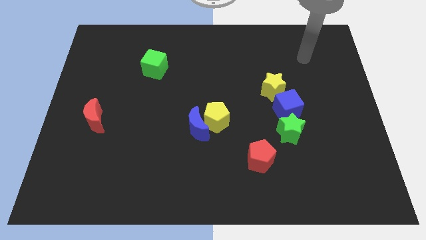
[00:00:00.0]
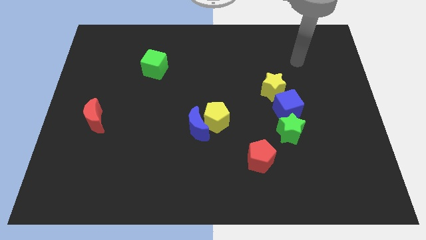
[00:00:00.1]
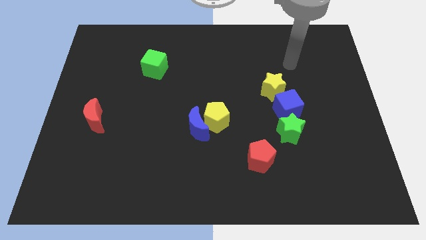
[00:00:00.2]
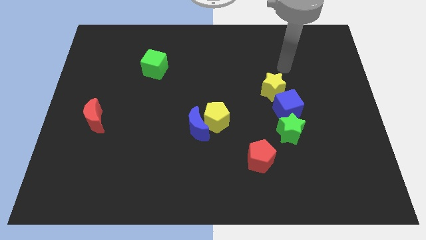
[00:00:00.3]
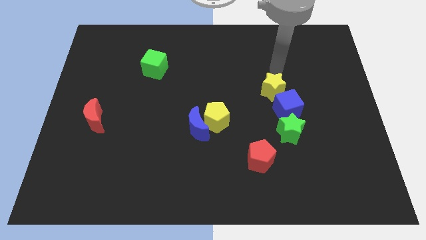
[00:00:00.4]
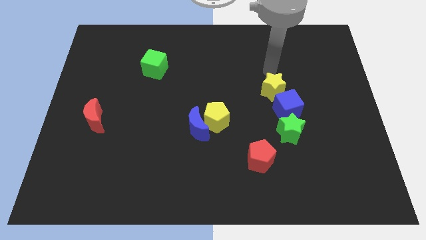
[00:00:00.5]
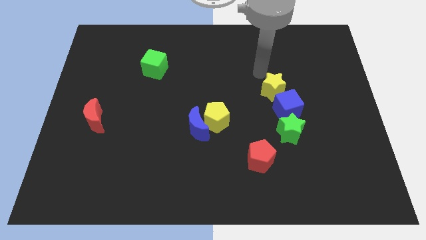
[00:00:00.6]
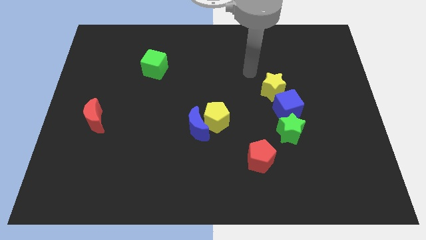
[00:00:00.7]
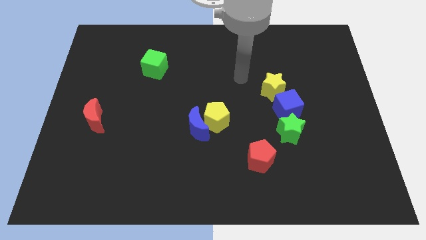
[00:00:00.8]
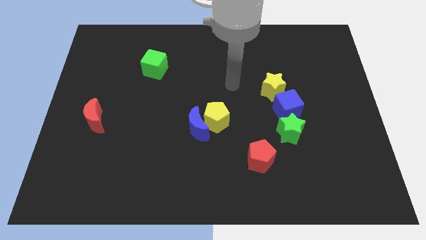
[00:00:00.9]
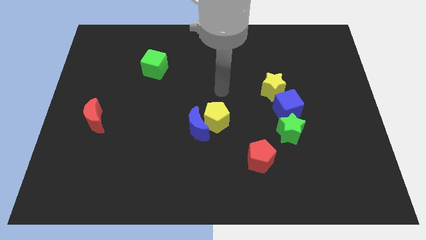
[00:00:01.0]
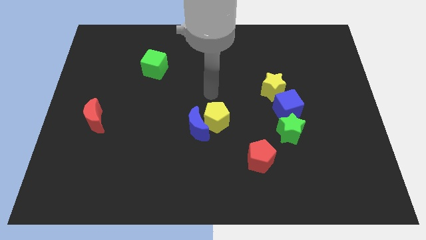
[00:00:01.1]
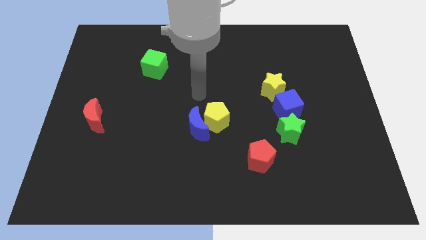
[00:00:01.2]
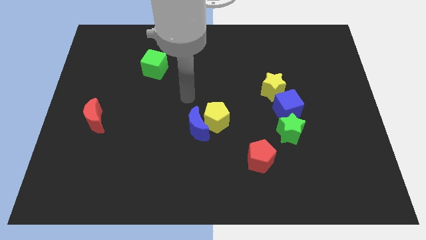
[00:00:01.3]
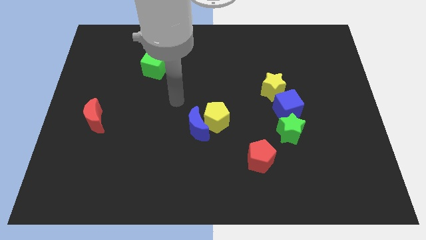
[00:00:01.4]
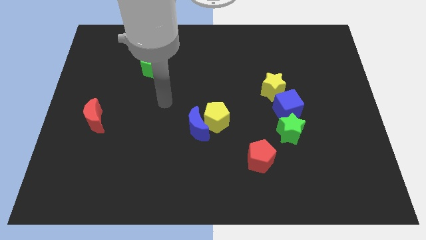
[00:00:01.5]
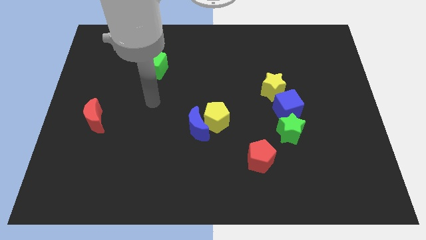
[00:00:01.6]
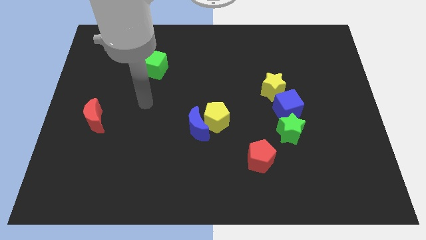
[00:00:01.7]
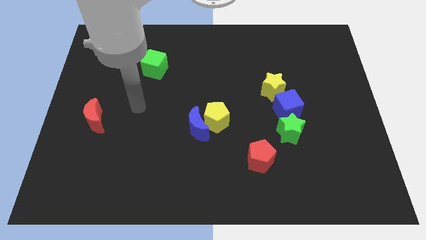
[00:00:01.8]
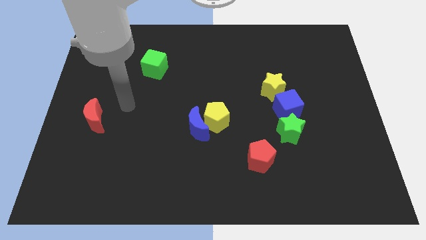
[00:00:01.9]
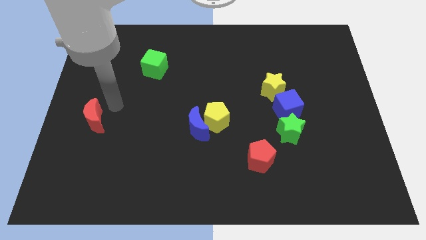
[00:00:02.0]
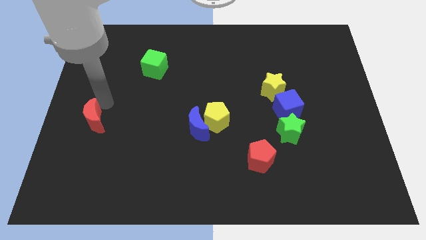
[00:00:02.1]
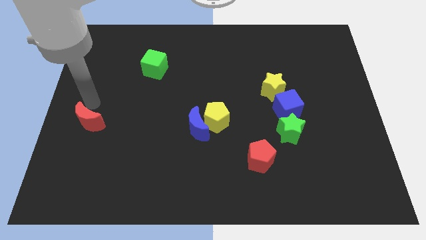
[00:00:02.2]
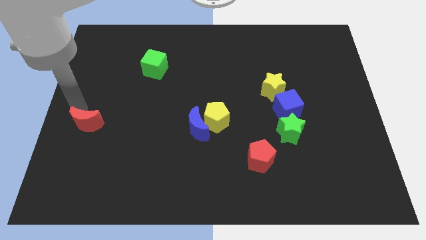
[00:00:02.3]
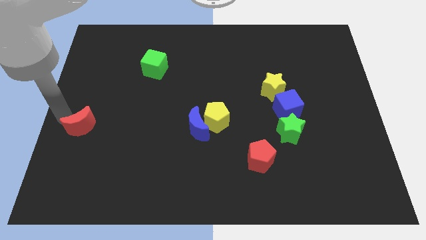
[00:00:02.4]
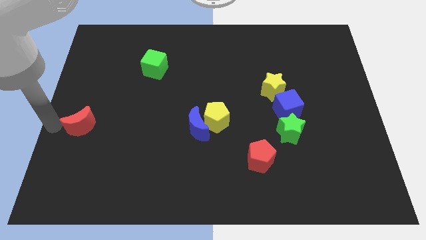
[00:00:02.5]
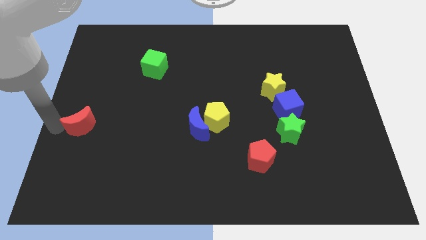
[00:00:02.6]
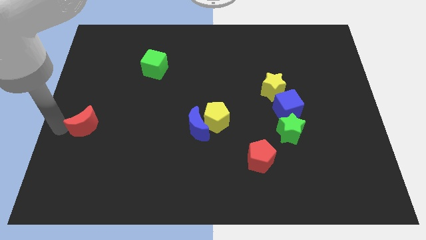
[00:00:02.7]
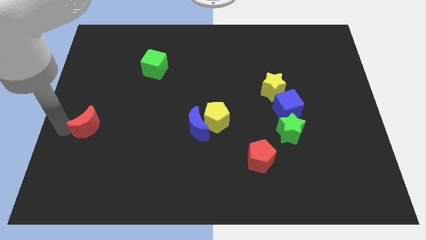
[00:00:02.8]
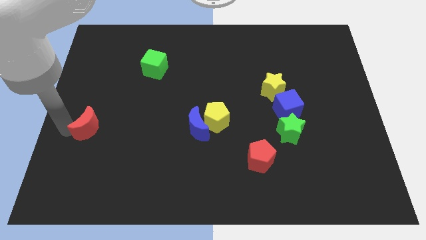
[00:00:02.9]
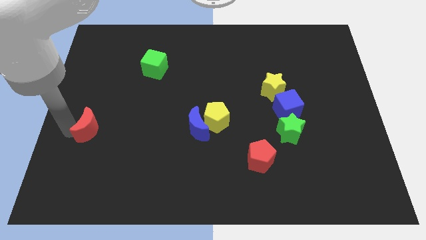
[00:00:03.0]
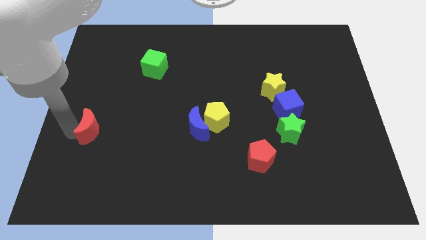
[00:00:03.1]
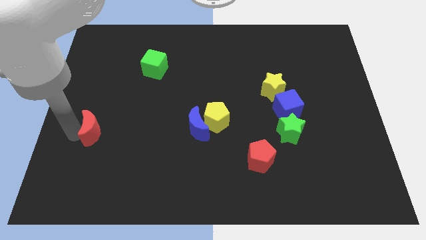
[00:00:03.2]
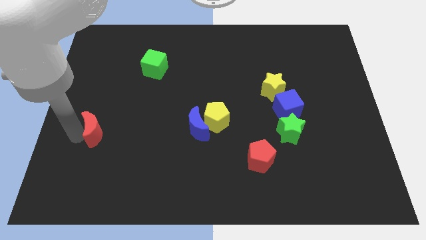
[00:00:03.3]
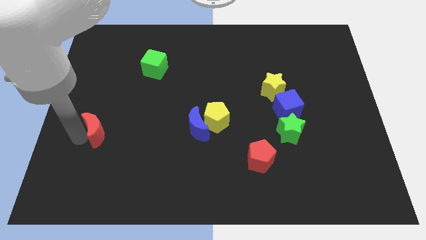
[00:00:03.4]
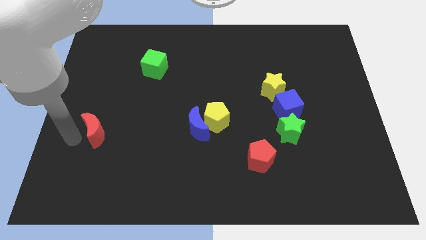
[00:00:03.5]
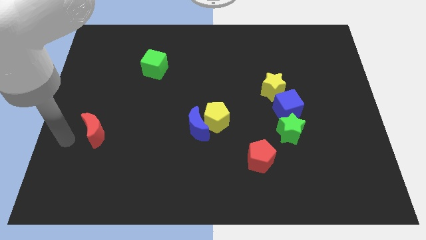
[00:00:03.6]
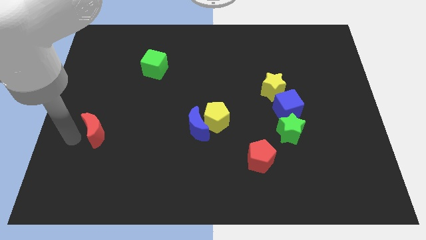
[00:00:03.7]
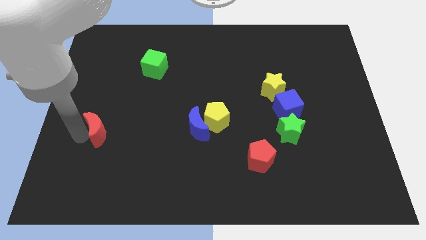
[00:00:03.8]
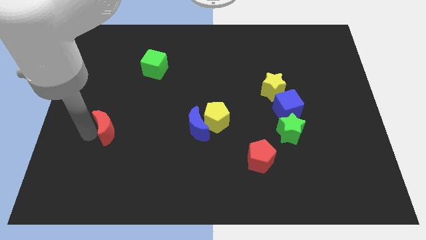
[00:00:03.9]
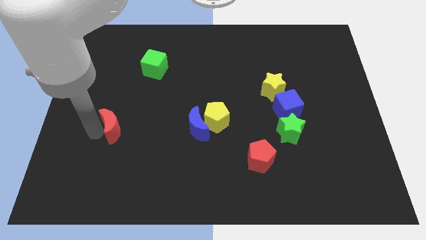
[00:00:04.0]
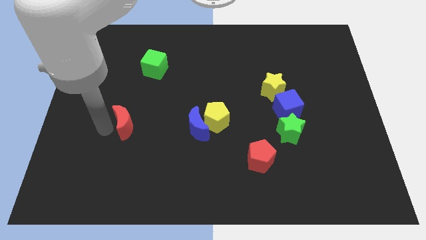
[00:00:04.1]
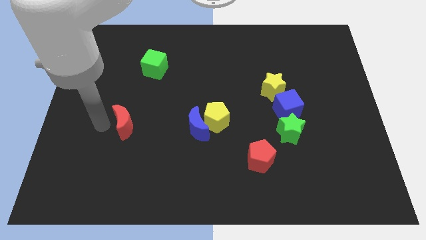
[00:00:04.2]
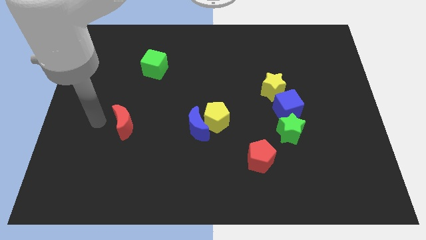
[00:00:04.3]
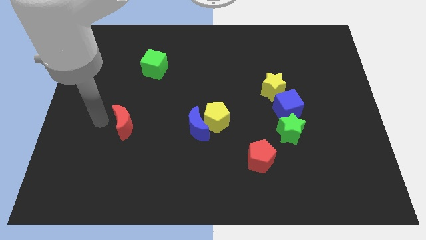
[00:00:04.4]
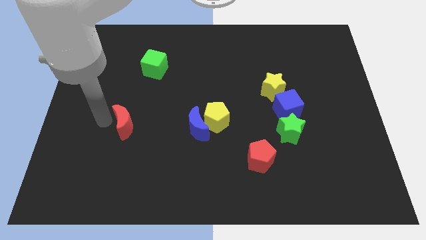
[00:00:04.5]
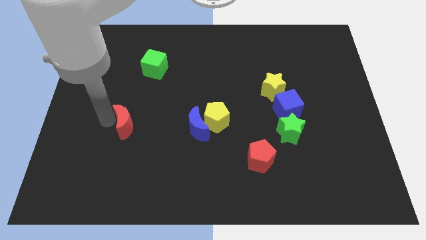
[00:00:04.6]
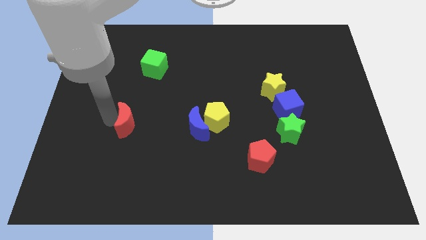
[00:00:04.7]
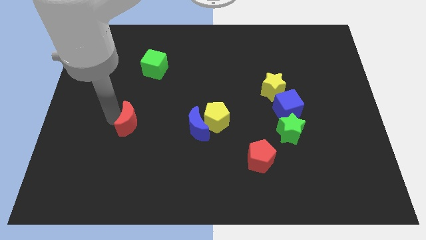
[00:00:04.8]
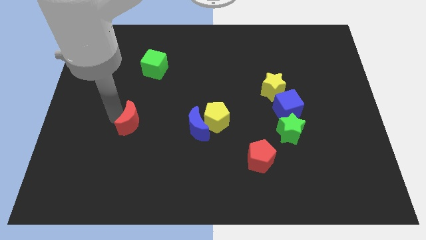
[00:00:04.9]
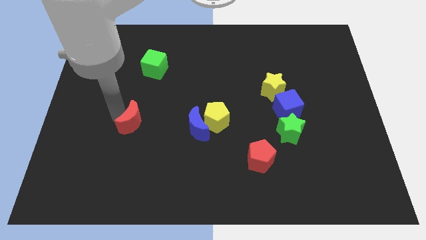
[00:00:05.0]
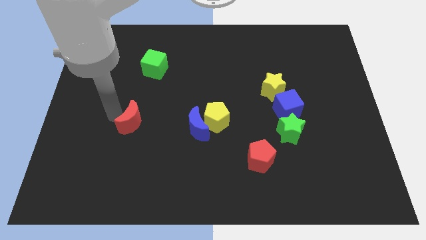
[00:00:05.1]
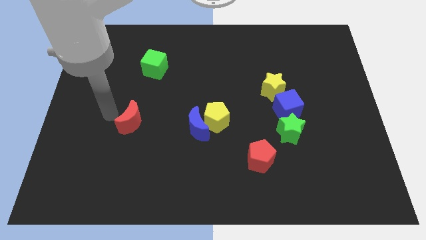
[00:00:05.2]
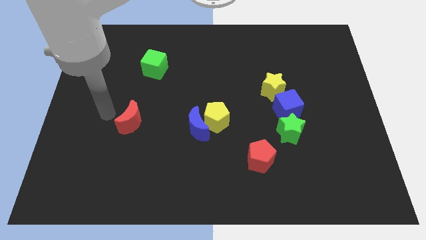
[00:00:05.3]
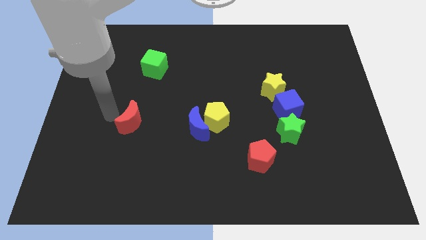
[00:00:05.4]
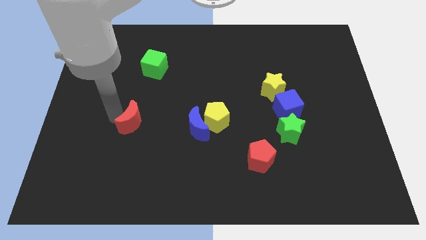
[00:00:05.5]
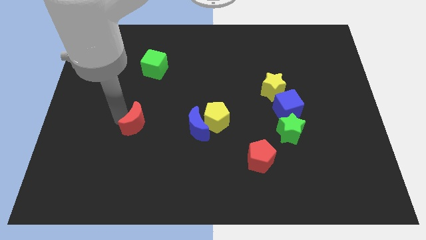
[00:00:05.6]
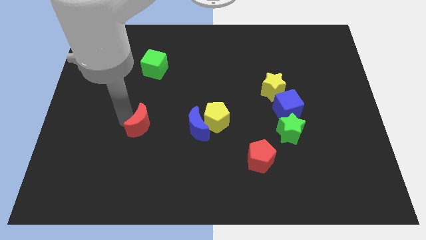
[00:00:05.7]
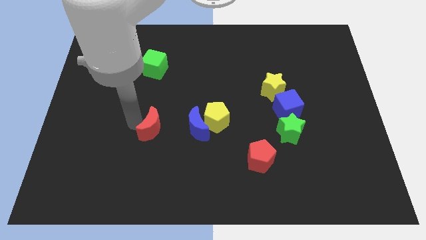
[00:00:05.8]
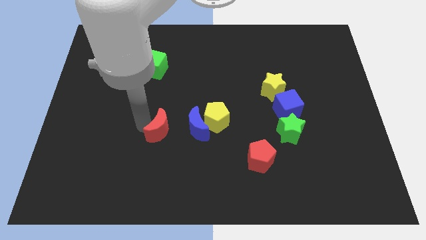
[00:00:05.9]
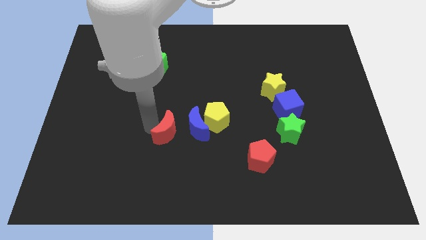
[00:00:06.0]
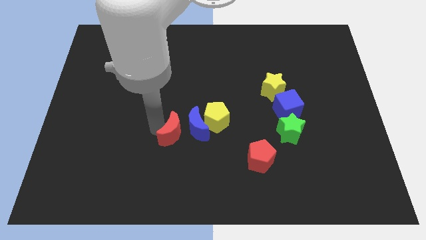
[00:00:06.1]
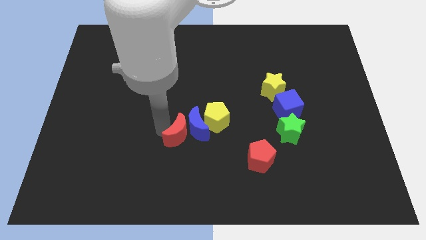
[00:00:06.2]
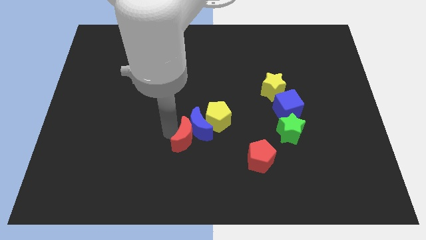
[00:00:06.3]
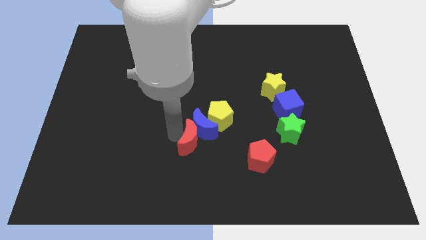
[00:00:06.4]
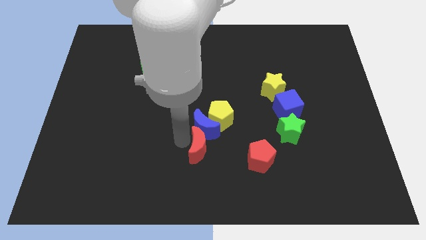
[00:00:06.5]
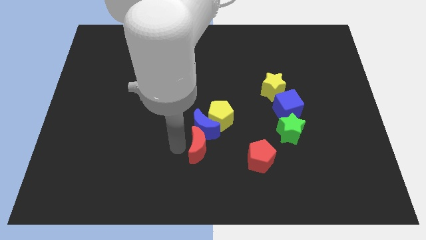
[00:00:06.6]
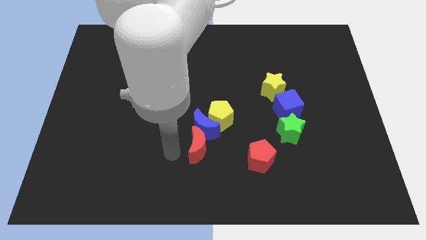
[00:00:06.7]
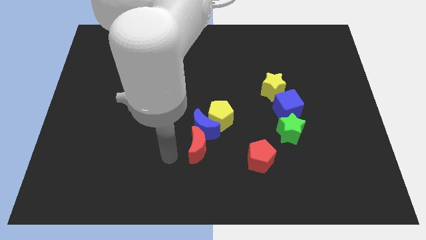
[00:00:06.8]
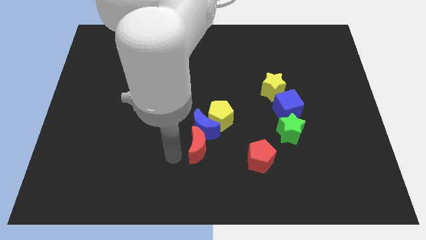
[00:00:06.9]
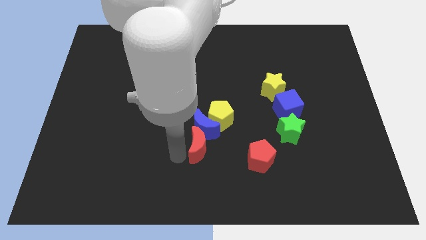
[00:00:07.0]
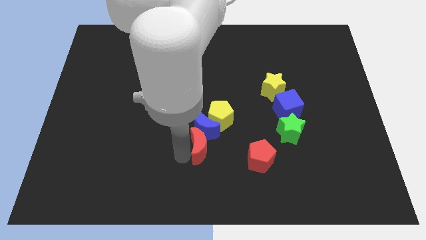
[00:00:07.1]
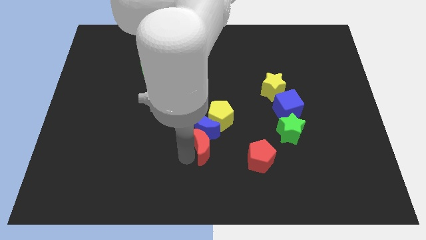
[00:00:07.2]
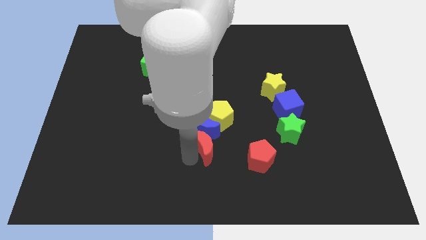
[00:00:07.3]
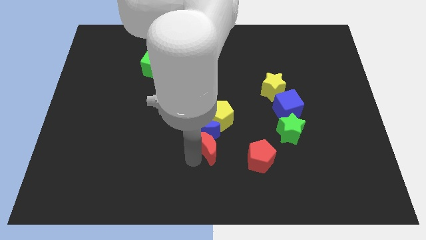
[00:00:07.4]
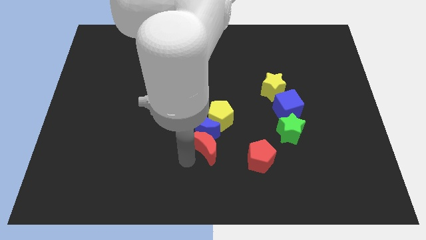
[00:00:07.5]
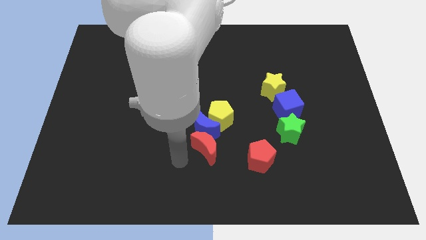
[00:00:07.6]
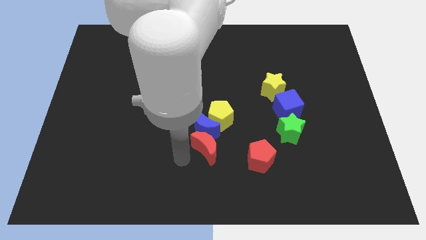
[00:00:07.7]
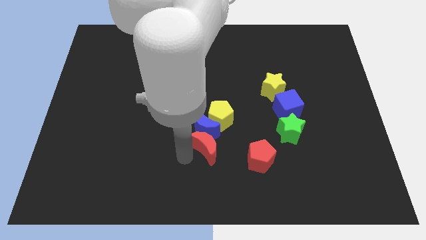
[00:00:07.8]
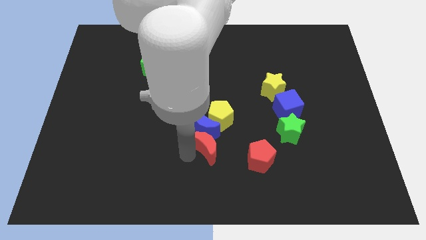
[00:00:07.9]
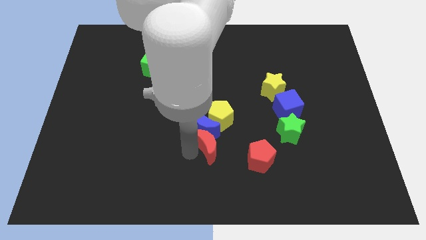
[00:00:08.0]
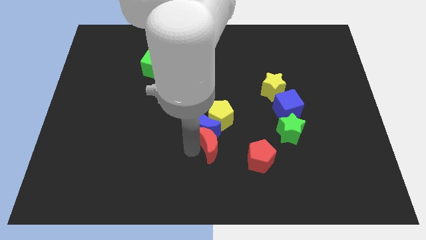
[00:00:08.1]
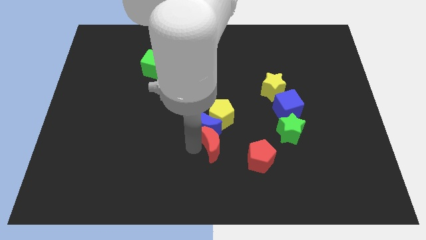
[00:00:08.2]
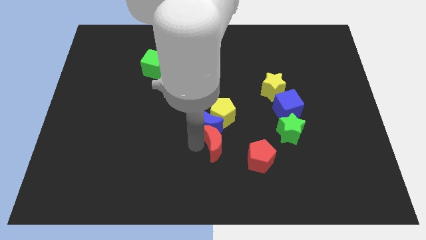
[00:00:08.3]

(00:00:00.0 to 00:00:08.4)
slide the red moon to the top left side of the red pentagon
